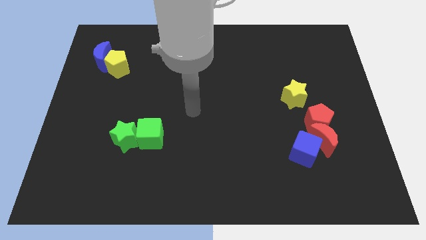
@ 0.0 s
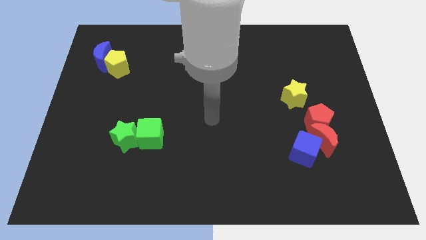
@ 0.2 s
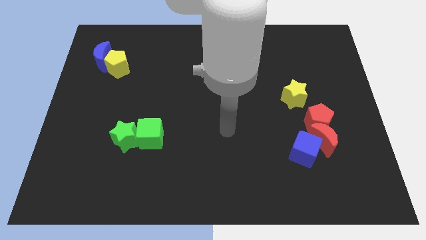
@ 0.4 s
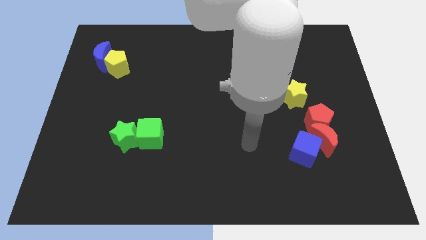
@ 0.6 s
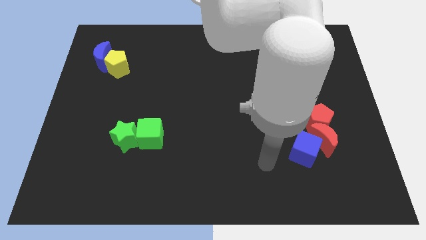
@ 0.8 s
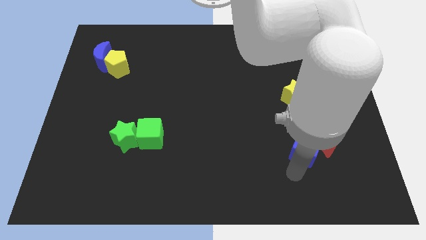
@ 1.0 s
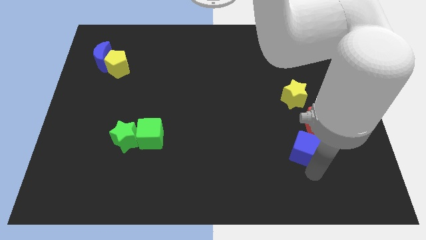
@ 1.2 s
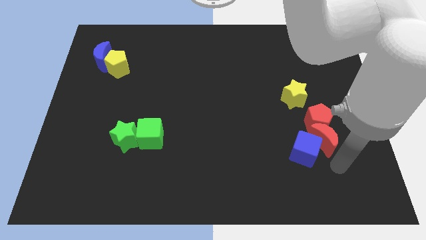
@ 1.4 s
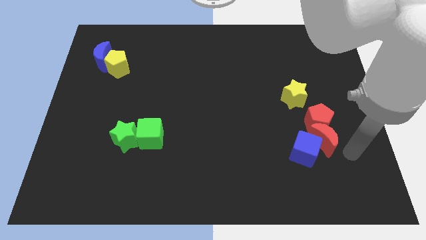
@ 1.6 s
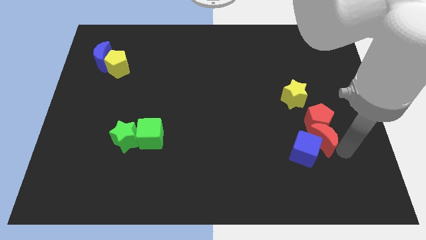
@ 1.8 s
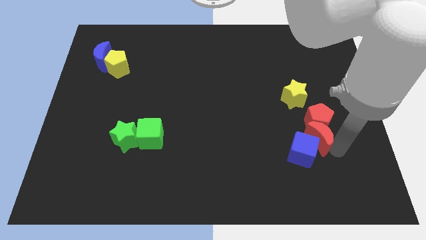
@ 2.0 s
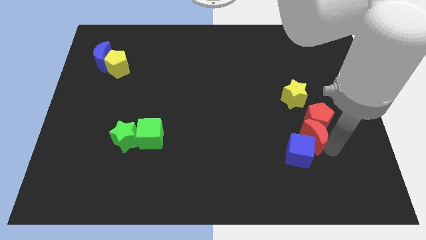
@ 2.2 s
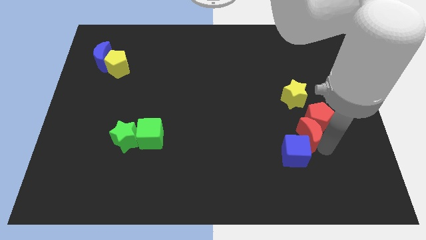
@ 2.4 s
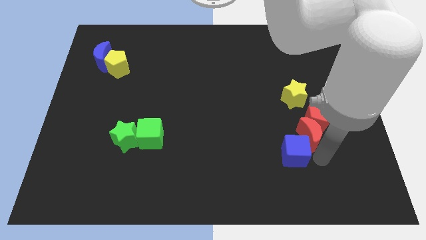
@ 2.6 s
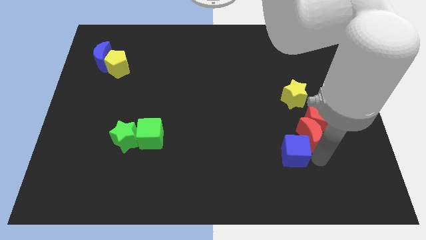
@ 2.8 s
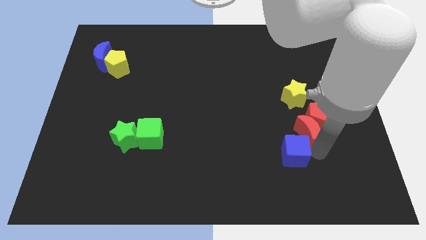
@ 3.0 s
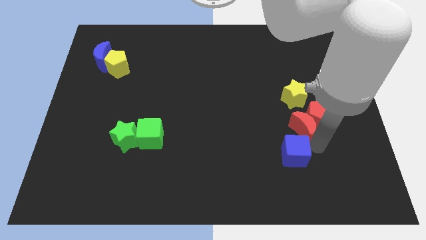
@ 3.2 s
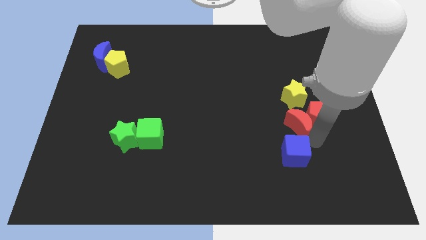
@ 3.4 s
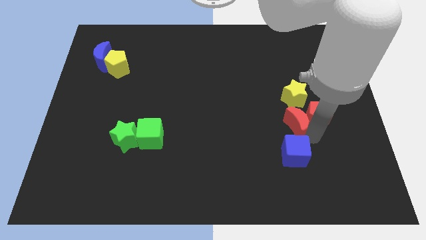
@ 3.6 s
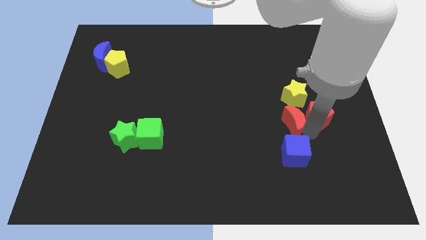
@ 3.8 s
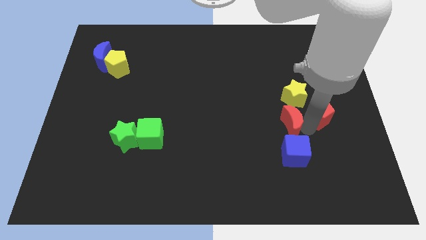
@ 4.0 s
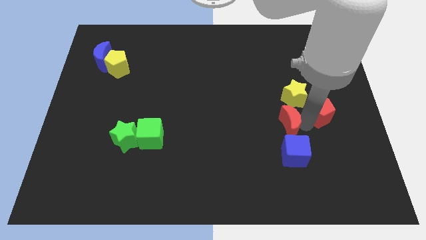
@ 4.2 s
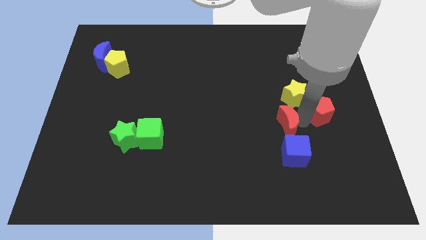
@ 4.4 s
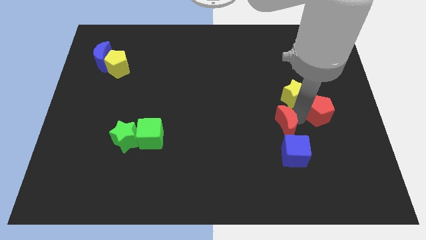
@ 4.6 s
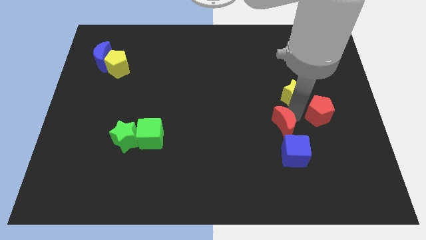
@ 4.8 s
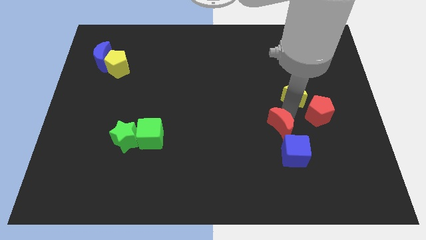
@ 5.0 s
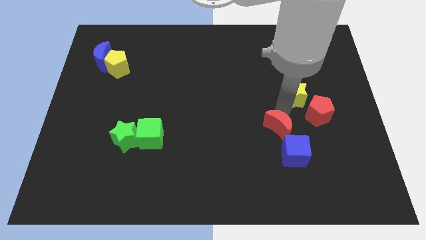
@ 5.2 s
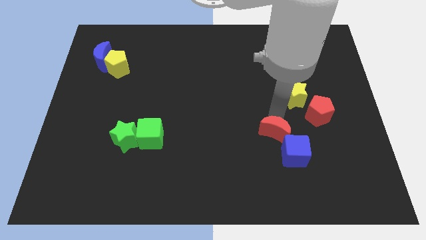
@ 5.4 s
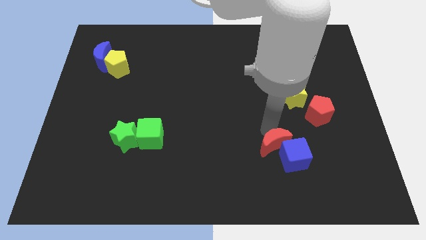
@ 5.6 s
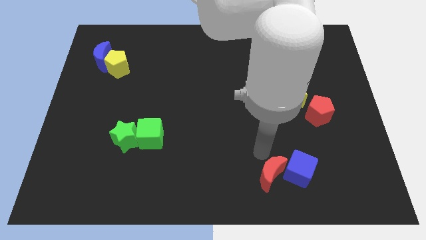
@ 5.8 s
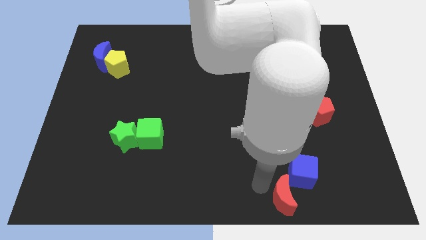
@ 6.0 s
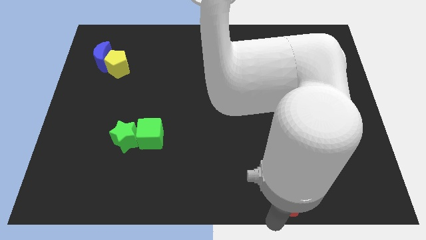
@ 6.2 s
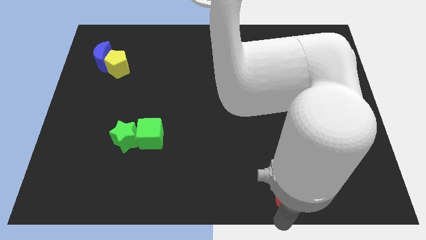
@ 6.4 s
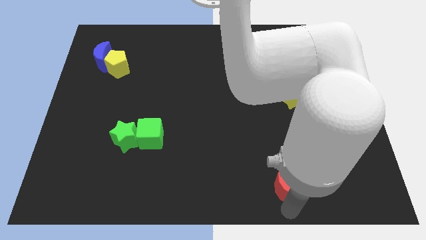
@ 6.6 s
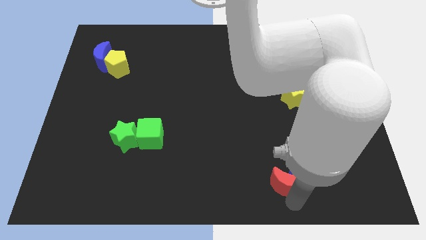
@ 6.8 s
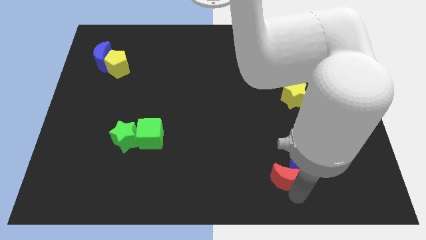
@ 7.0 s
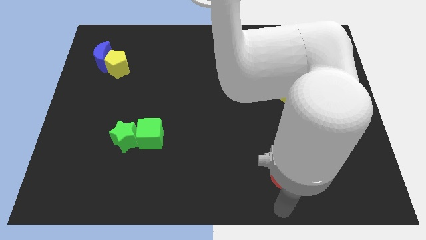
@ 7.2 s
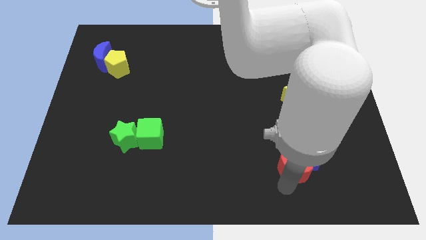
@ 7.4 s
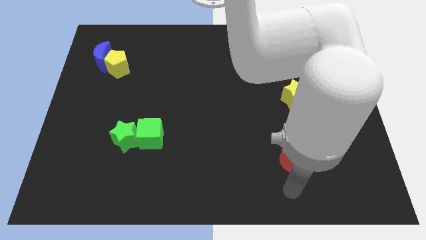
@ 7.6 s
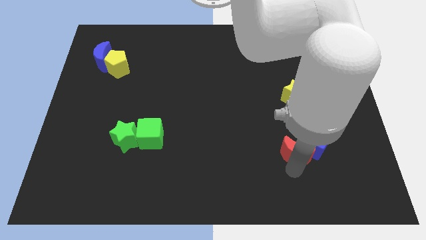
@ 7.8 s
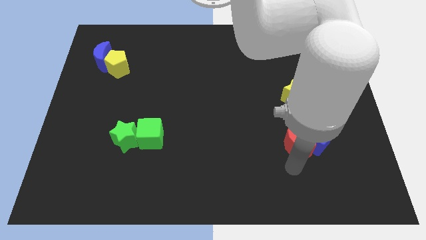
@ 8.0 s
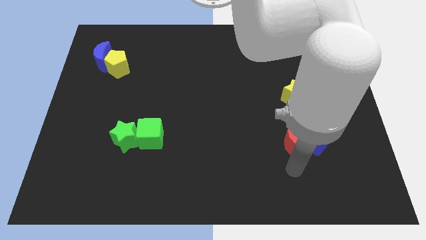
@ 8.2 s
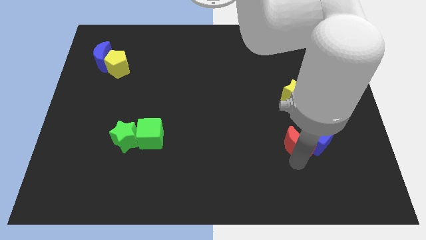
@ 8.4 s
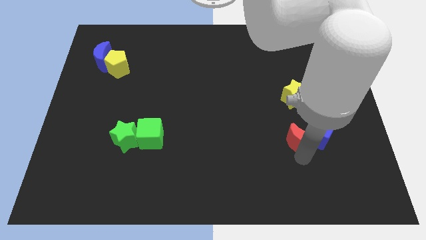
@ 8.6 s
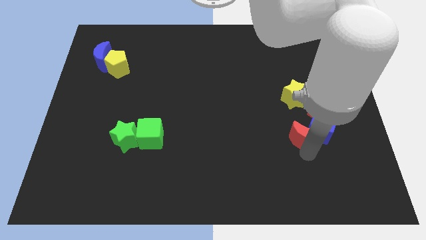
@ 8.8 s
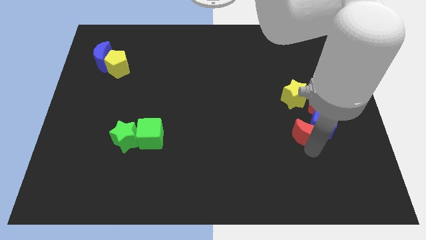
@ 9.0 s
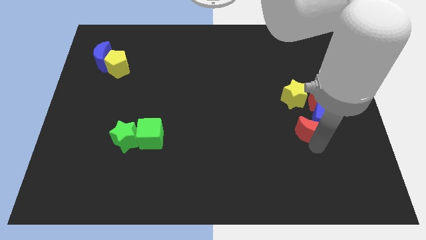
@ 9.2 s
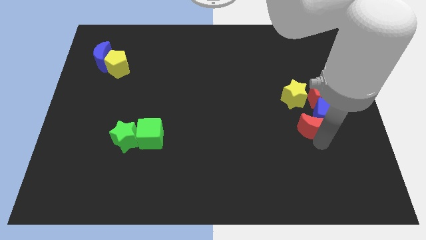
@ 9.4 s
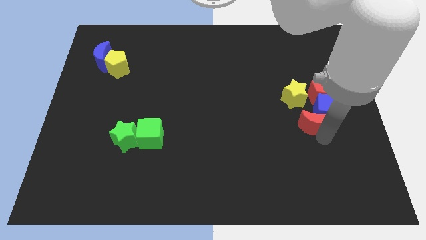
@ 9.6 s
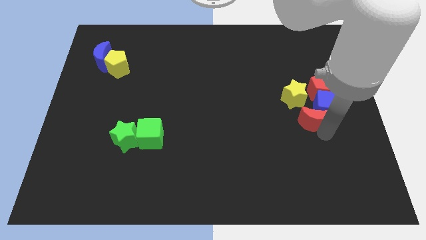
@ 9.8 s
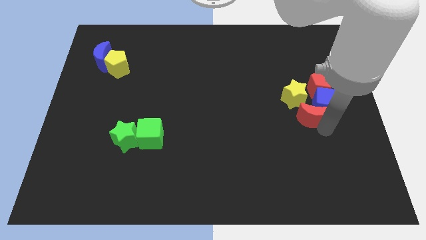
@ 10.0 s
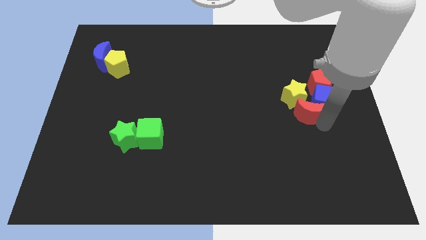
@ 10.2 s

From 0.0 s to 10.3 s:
put the red moon next to the yellow star

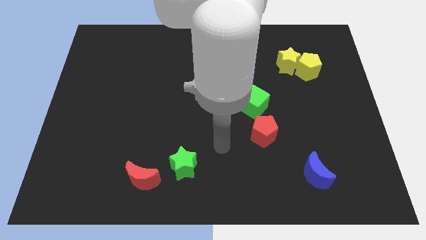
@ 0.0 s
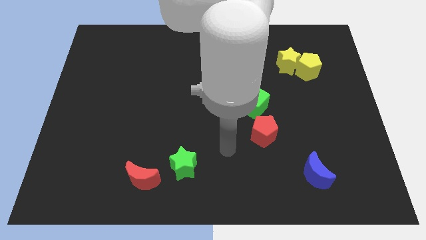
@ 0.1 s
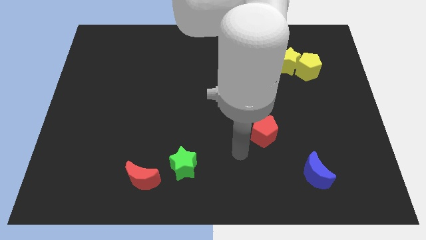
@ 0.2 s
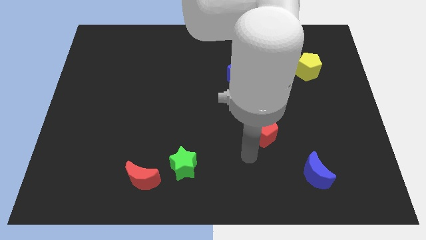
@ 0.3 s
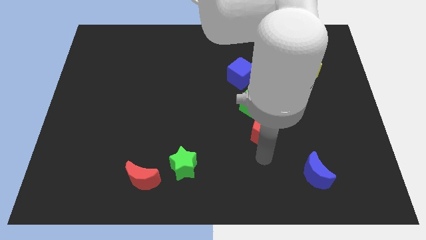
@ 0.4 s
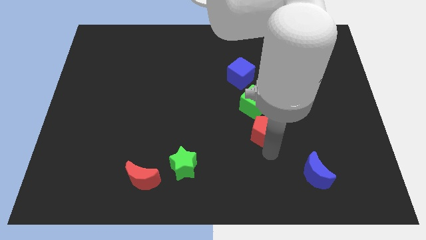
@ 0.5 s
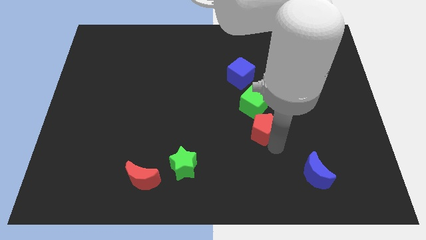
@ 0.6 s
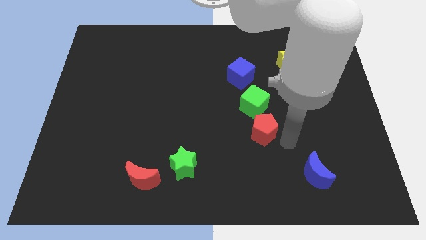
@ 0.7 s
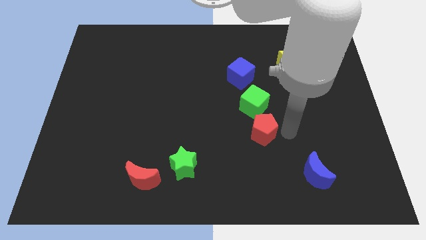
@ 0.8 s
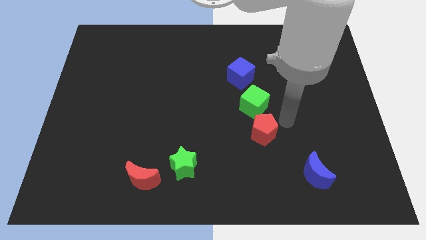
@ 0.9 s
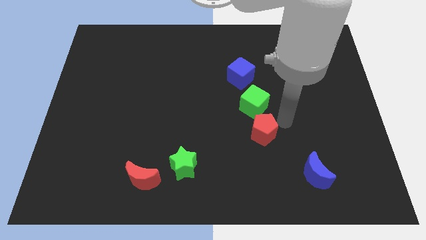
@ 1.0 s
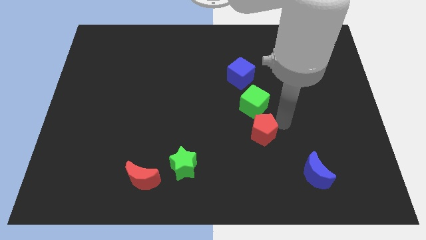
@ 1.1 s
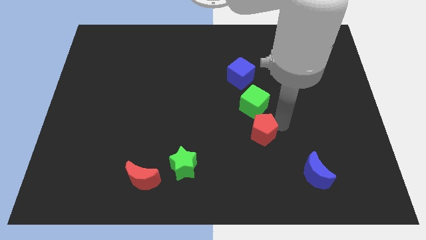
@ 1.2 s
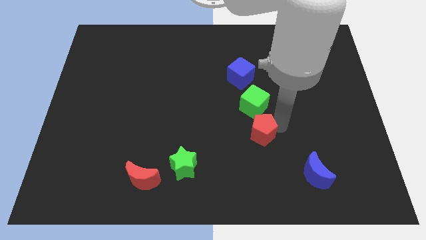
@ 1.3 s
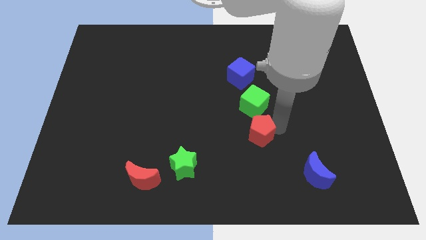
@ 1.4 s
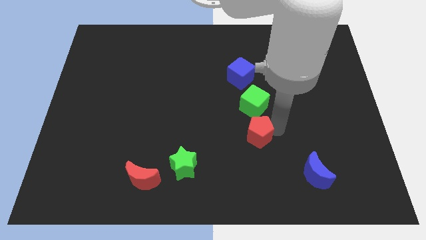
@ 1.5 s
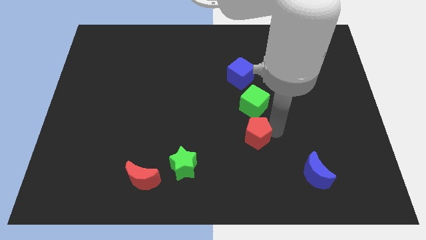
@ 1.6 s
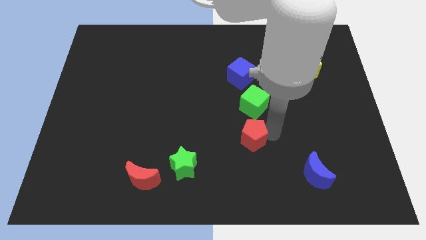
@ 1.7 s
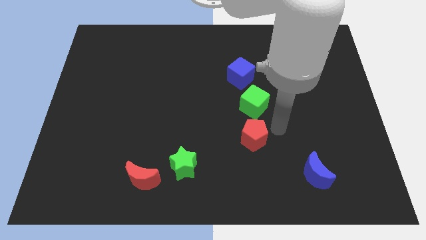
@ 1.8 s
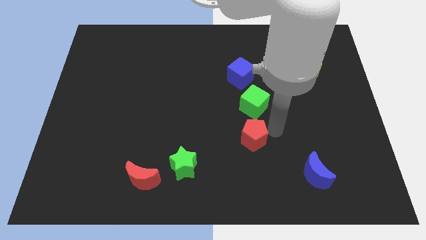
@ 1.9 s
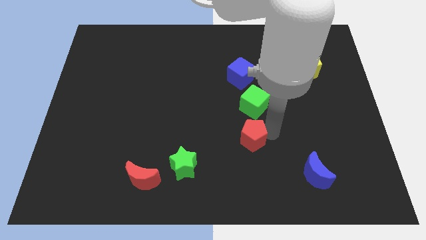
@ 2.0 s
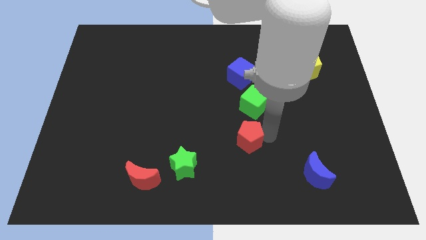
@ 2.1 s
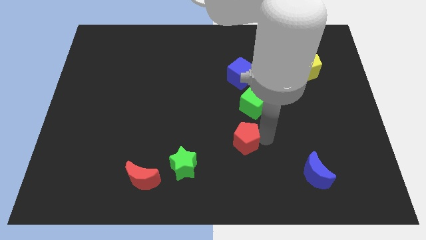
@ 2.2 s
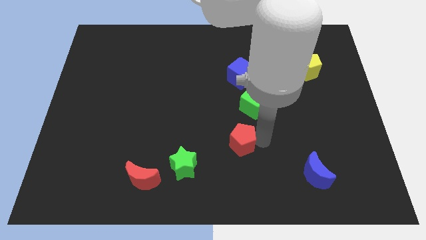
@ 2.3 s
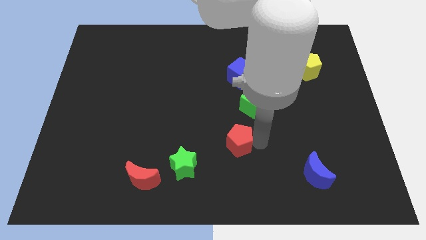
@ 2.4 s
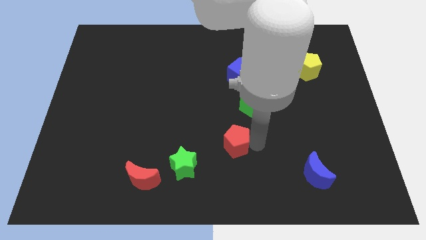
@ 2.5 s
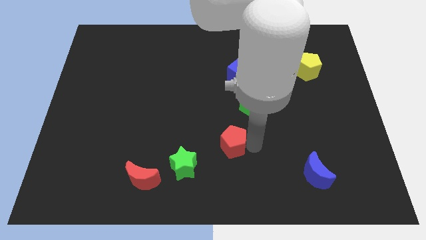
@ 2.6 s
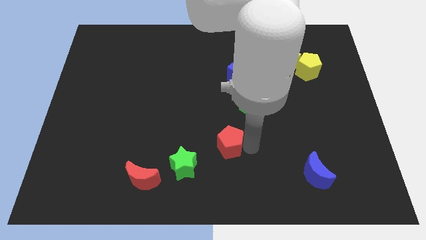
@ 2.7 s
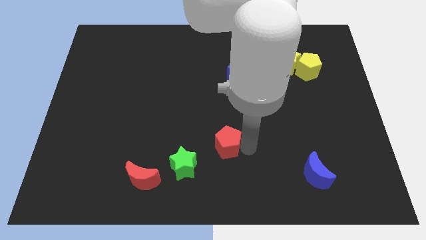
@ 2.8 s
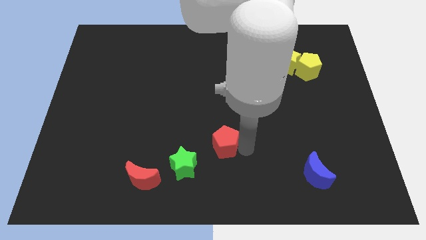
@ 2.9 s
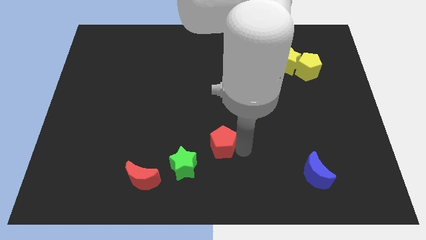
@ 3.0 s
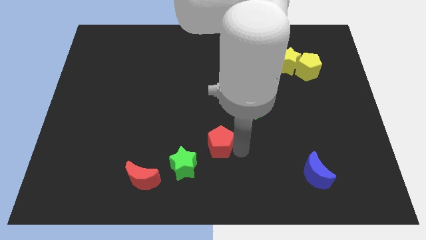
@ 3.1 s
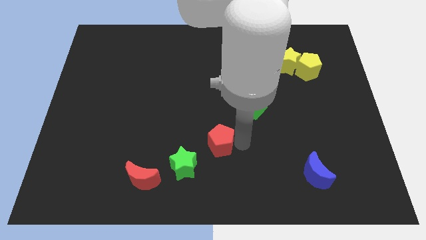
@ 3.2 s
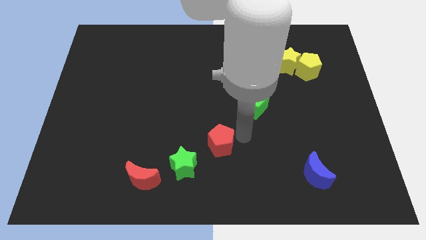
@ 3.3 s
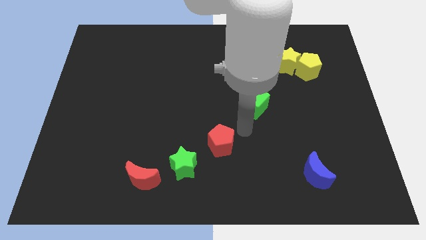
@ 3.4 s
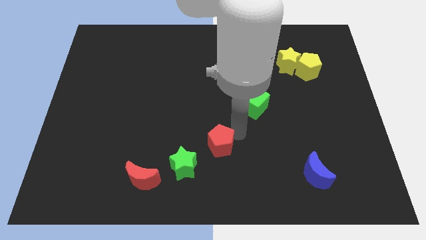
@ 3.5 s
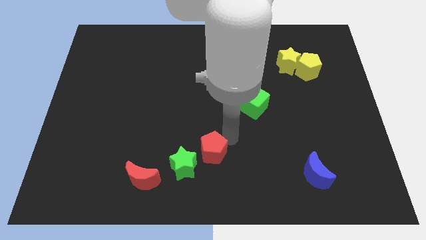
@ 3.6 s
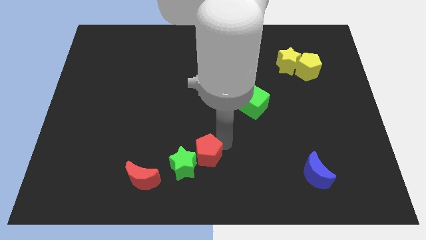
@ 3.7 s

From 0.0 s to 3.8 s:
push the red pentagon towards the green star
